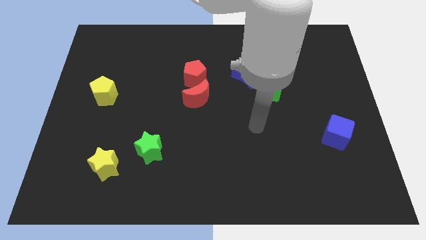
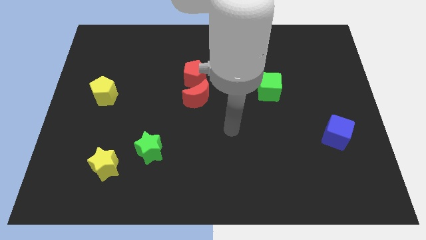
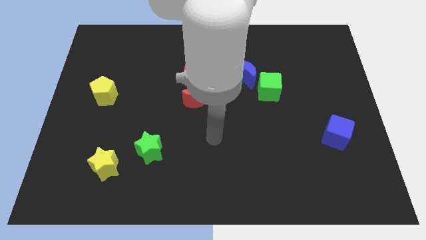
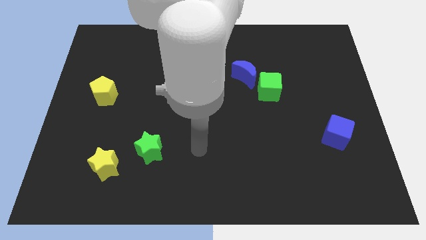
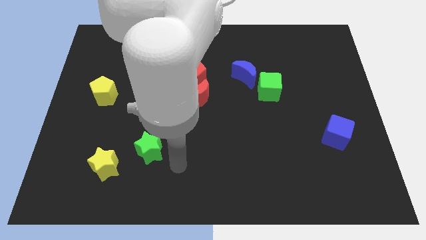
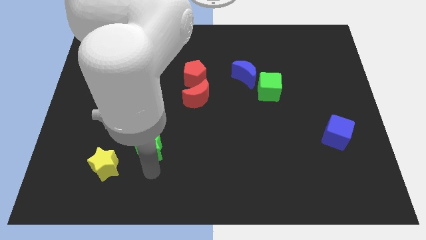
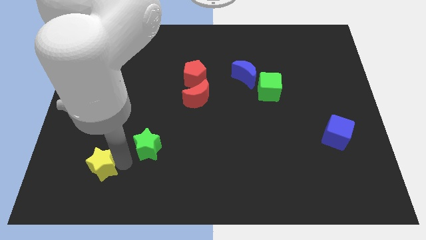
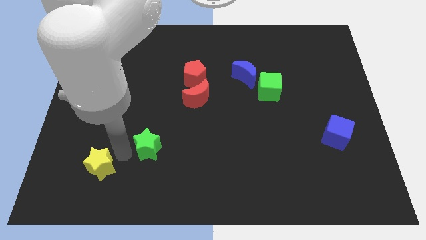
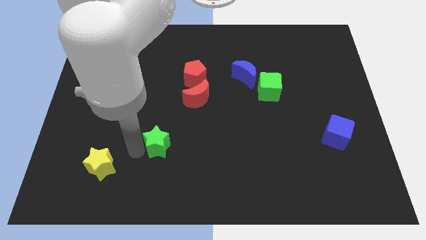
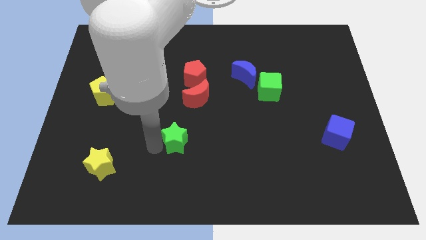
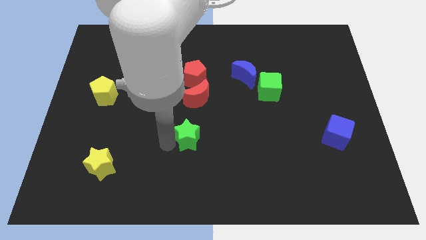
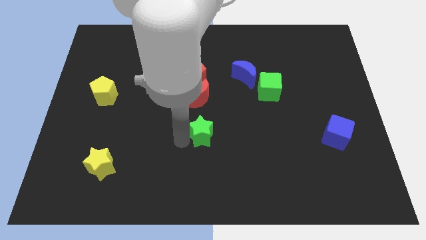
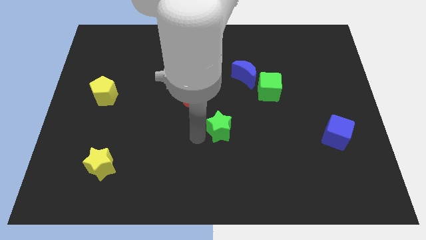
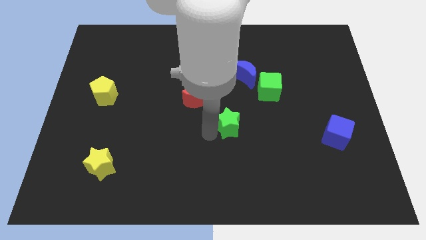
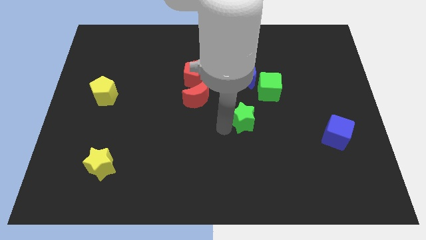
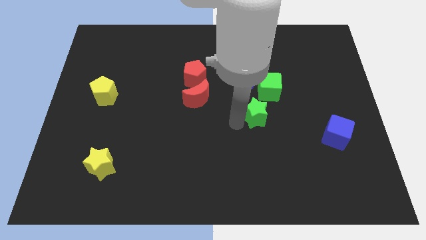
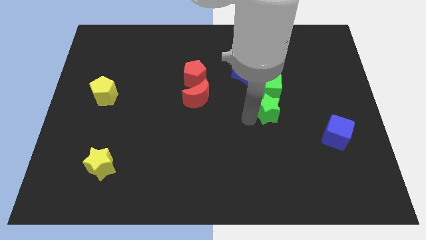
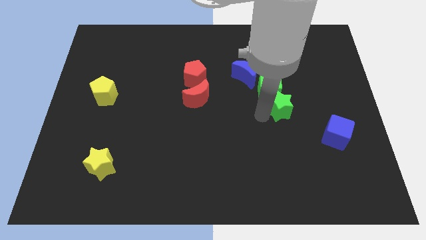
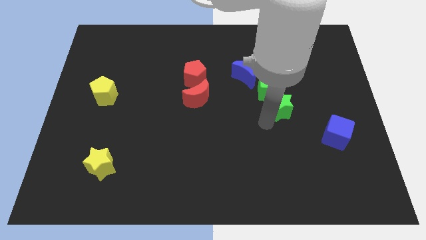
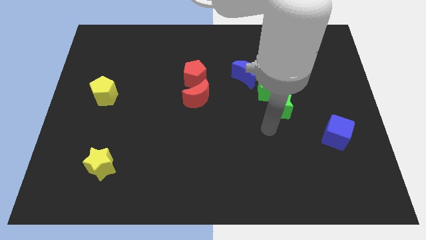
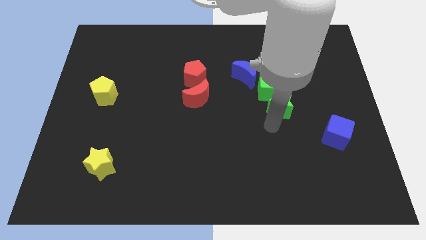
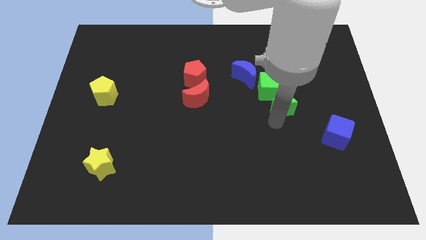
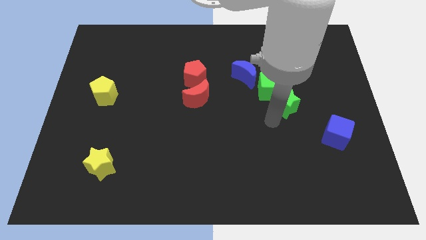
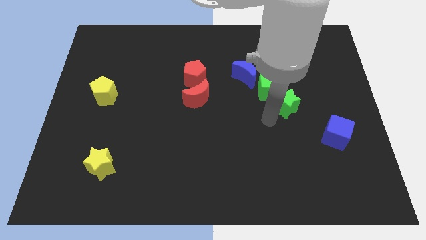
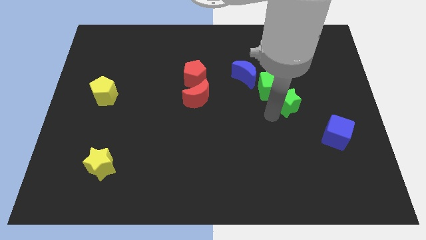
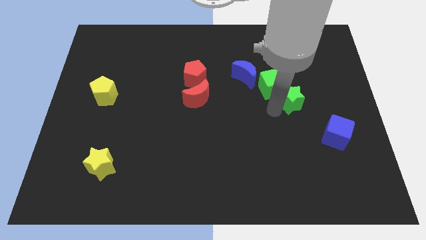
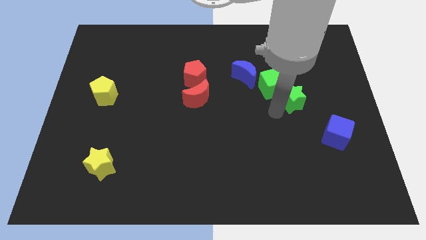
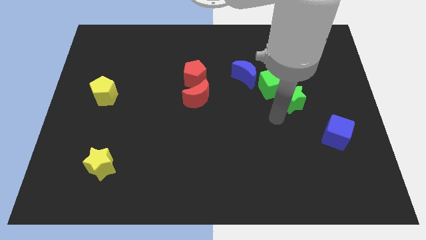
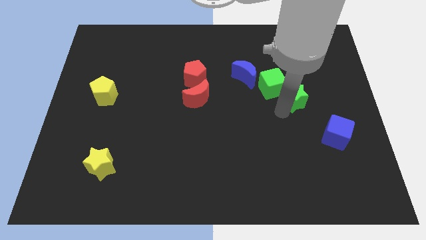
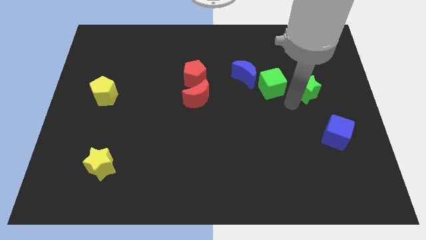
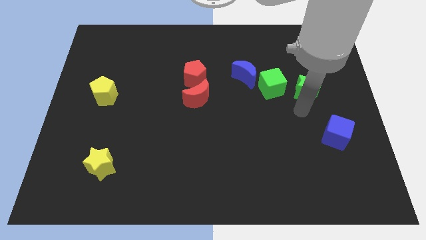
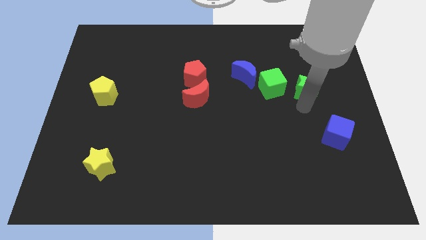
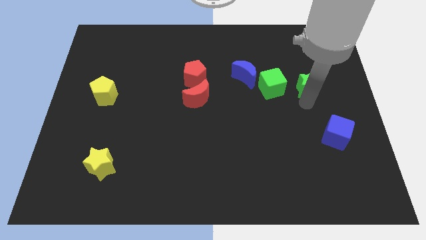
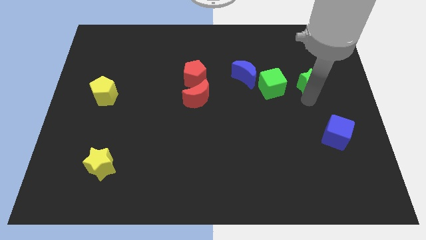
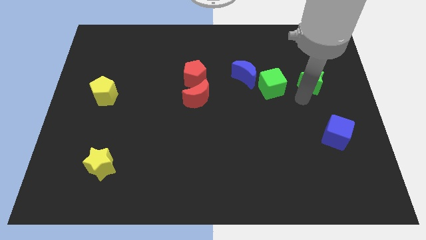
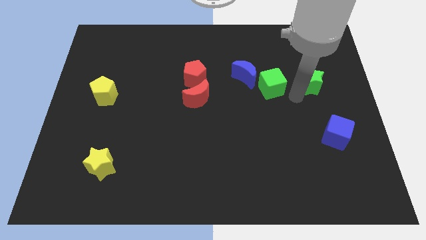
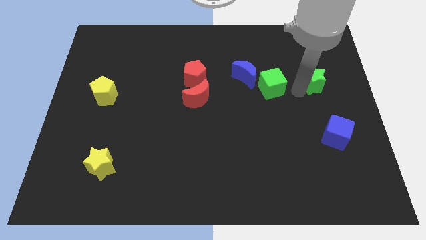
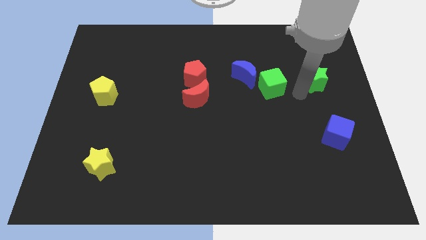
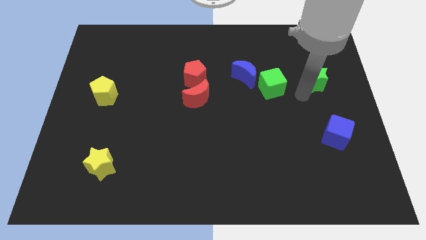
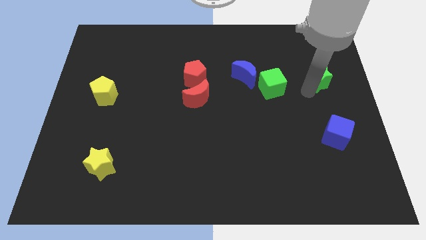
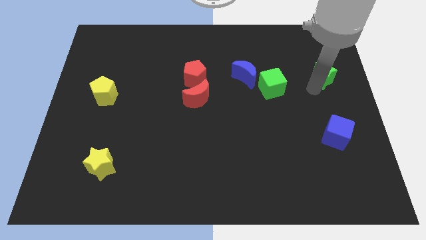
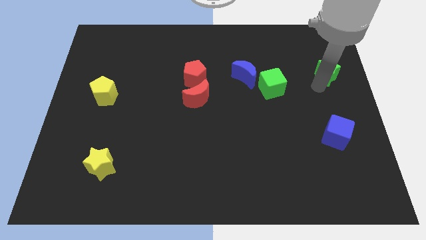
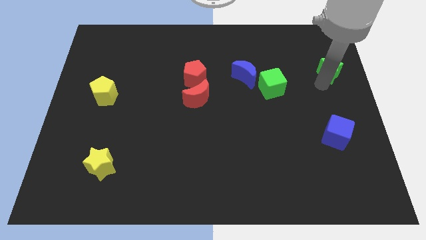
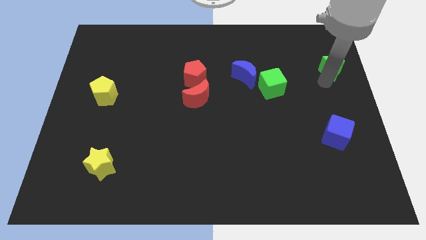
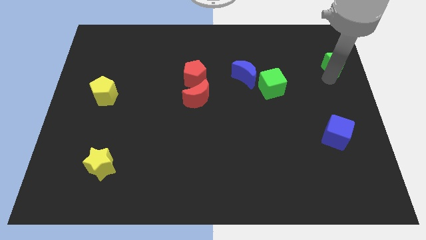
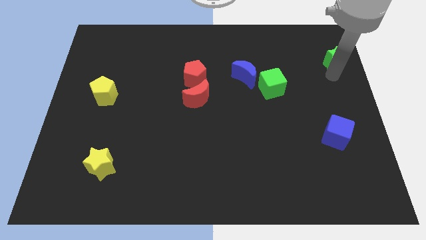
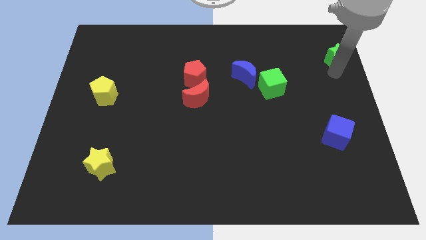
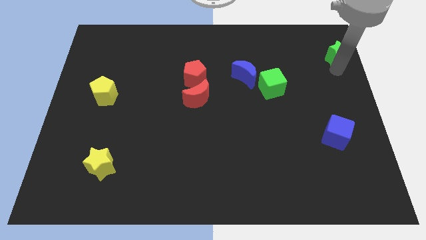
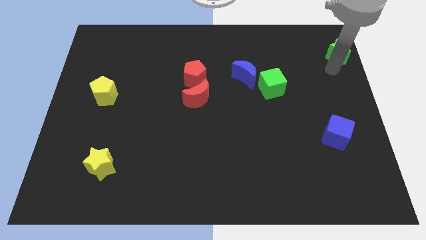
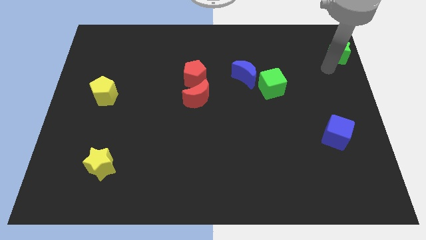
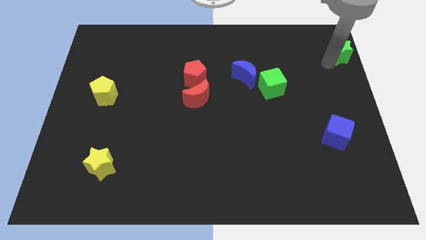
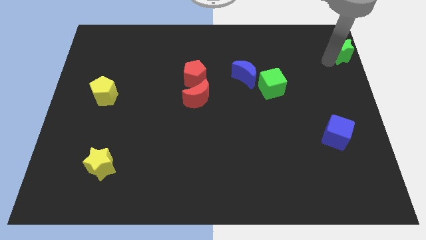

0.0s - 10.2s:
move the green star to the top right of the board

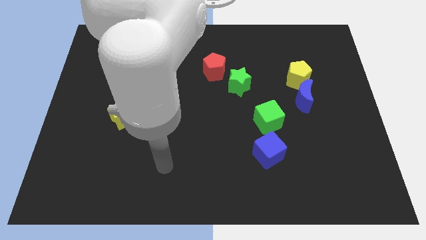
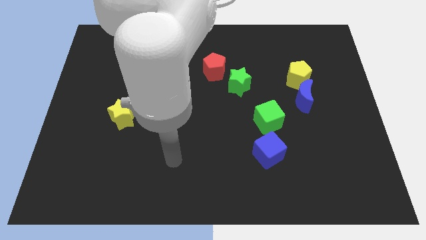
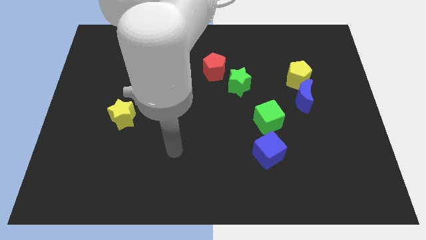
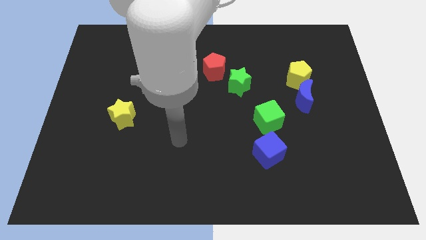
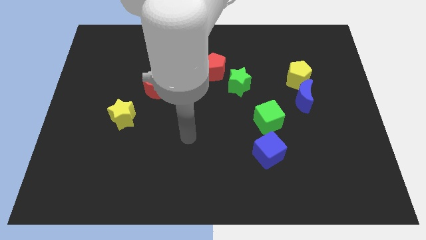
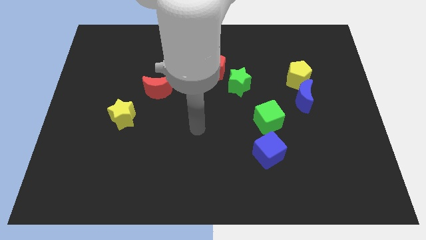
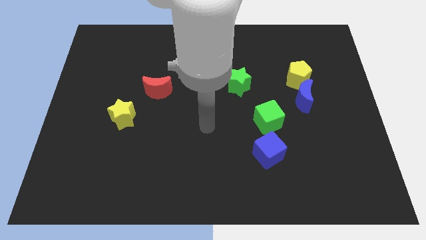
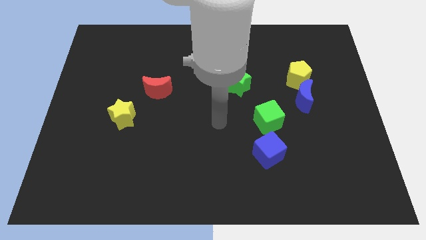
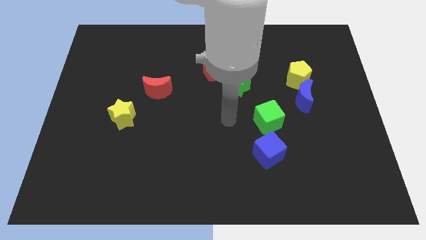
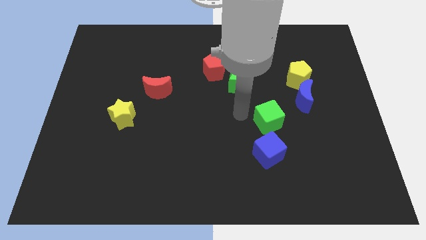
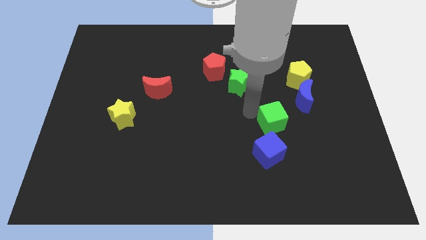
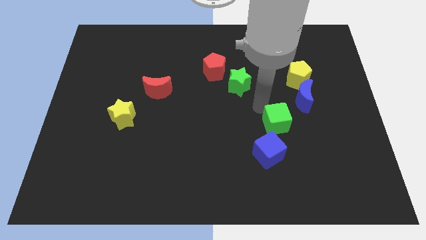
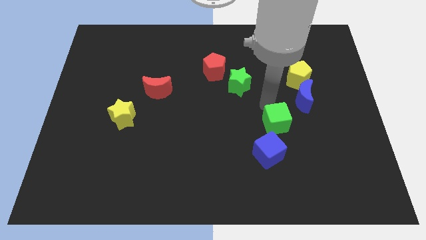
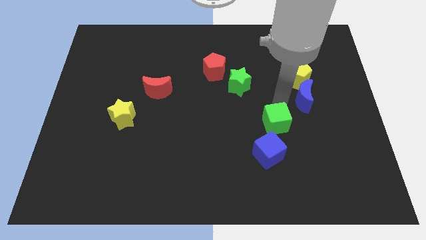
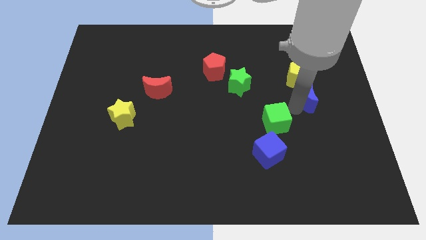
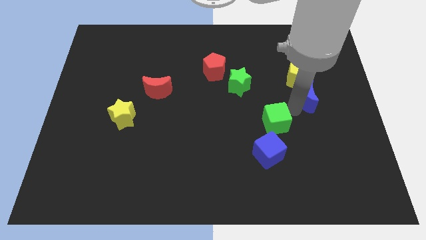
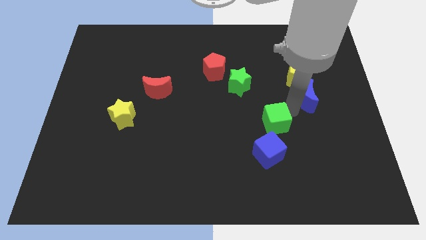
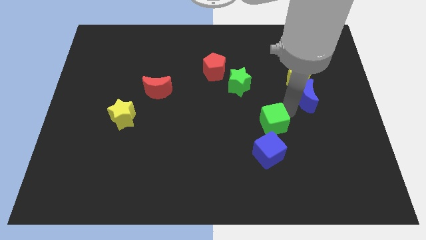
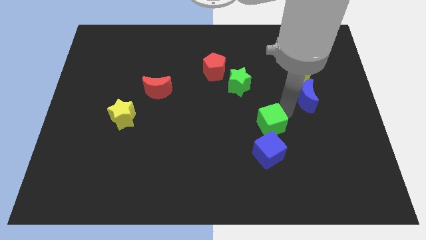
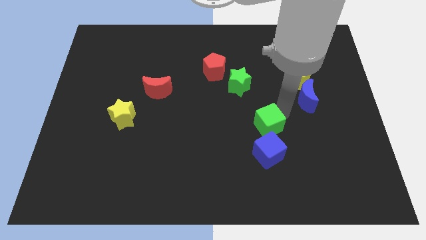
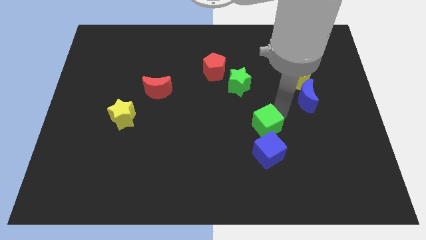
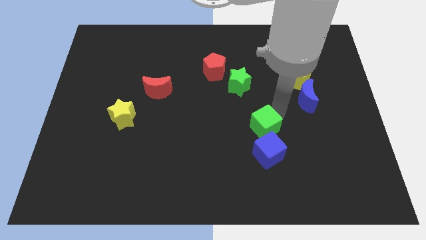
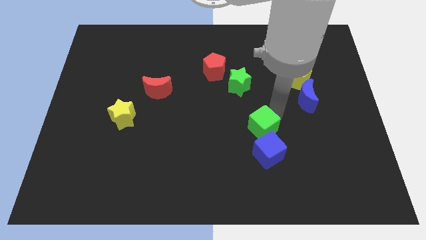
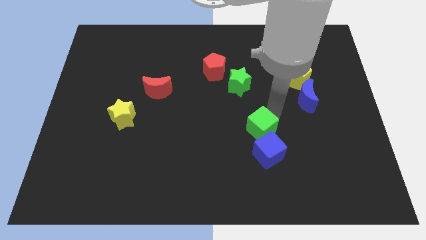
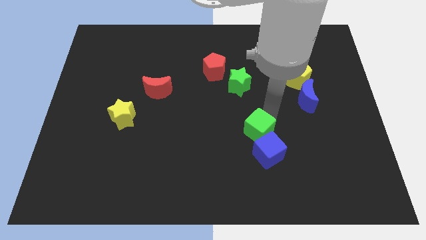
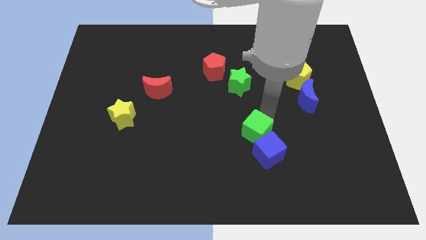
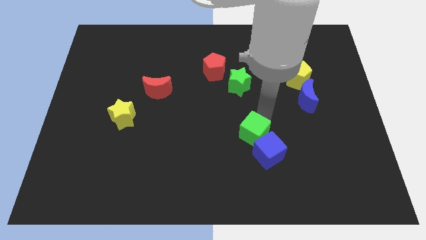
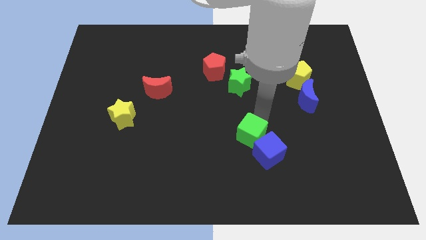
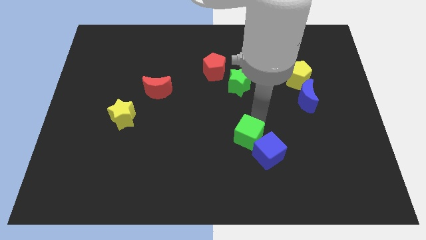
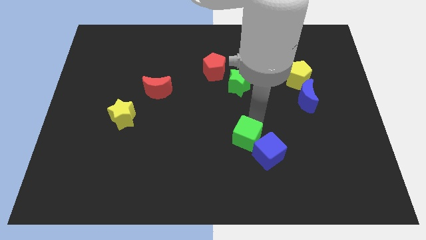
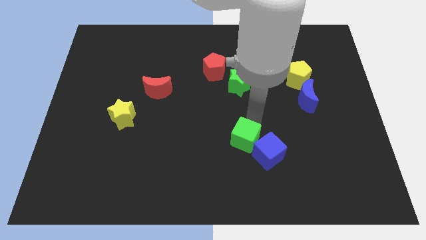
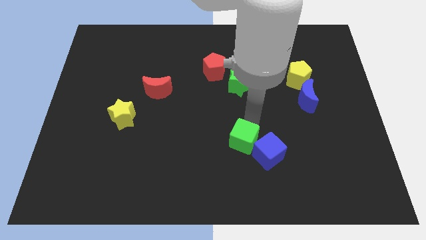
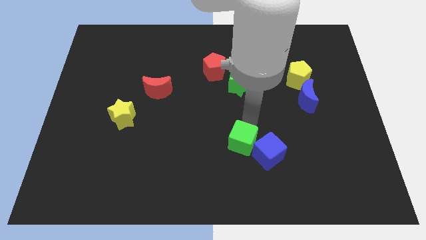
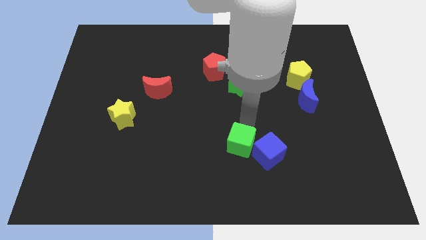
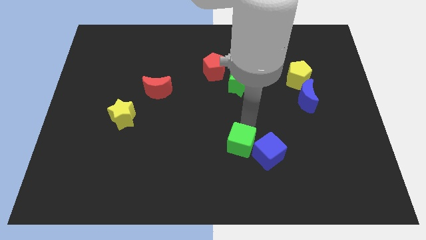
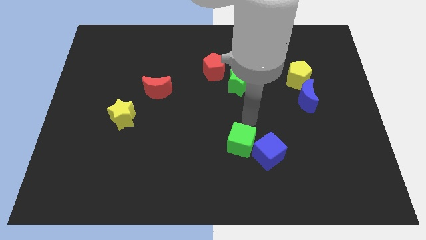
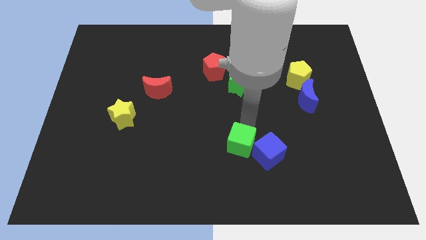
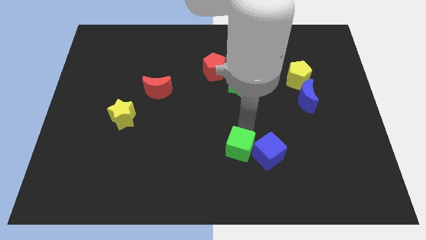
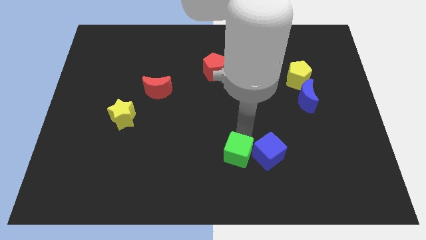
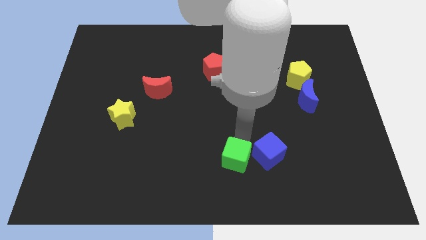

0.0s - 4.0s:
move the green cube to the bottom side
